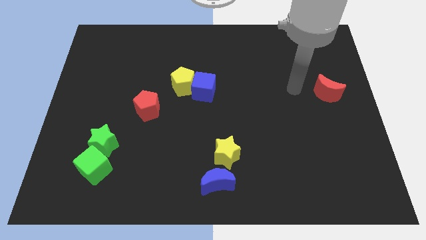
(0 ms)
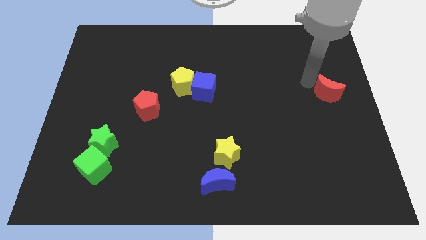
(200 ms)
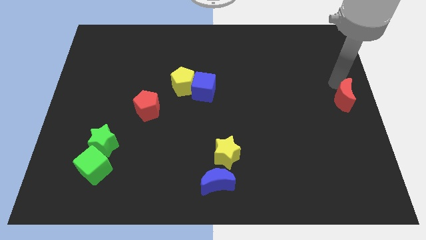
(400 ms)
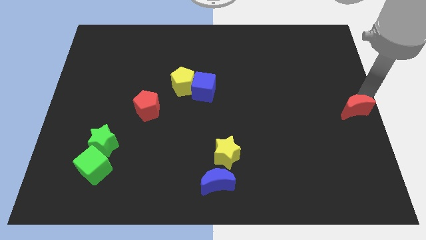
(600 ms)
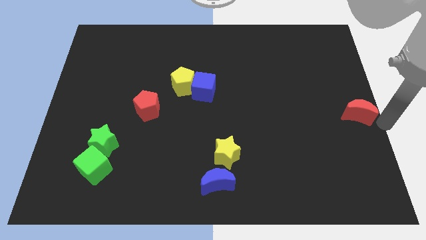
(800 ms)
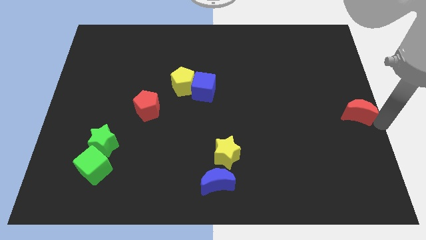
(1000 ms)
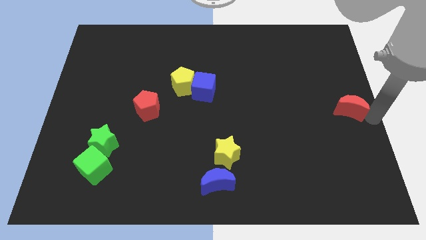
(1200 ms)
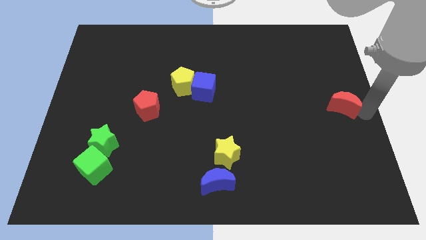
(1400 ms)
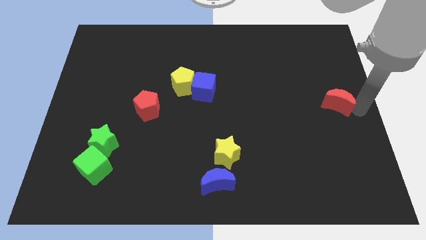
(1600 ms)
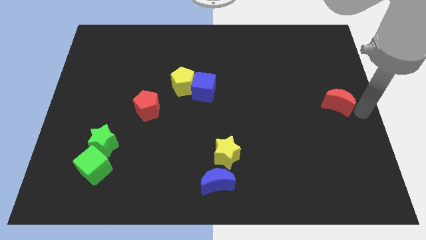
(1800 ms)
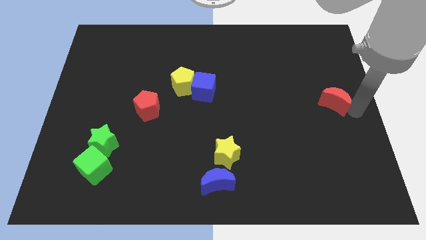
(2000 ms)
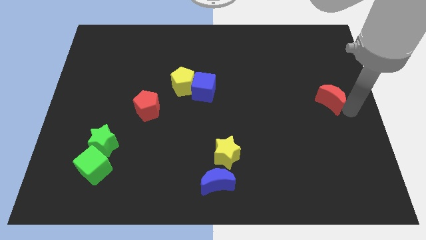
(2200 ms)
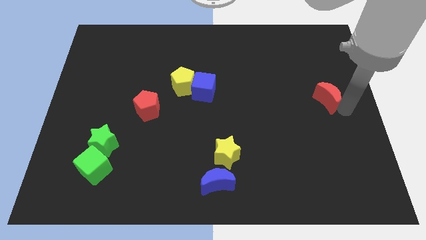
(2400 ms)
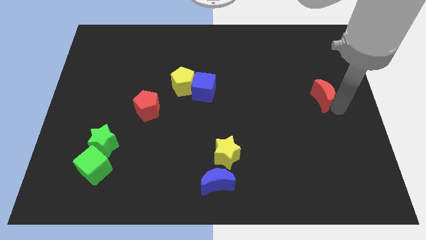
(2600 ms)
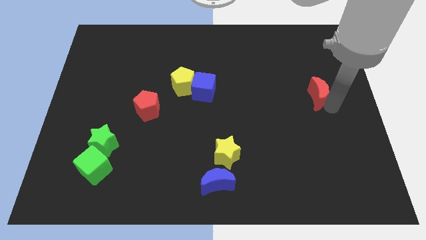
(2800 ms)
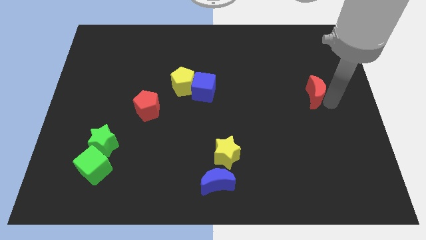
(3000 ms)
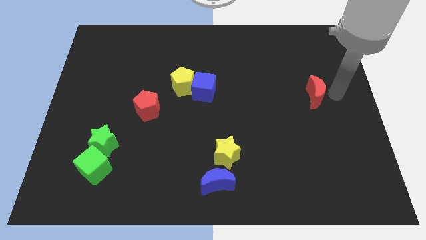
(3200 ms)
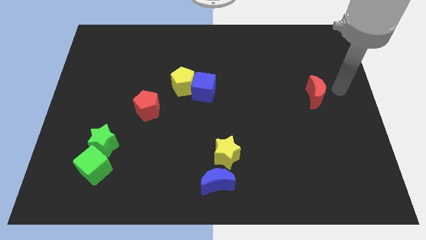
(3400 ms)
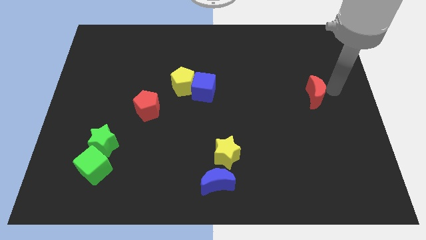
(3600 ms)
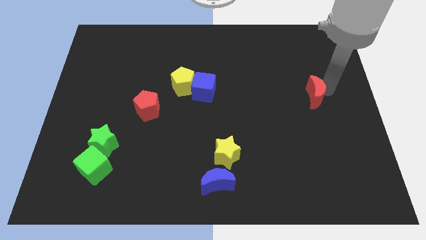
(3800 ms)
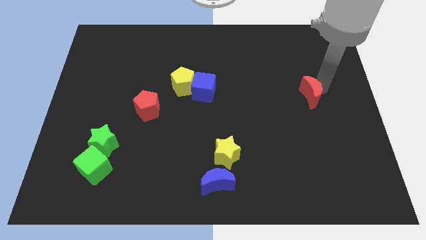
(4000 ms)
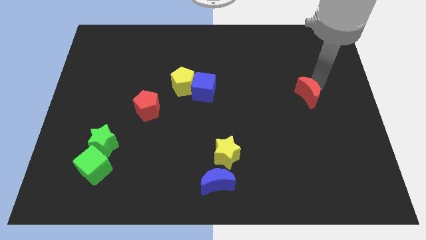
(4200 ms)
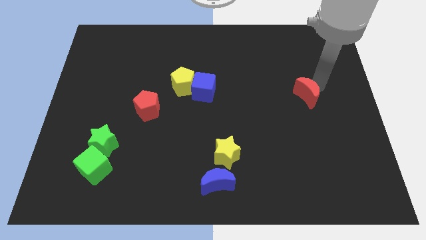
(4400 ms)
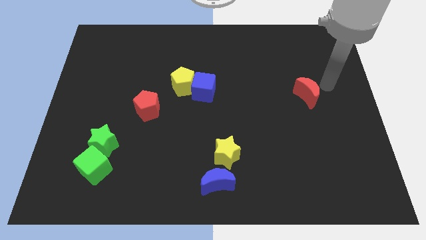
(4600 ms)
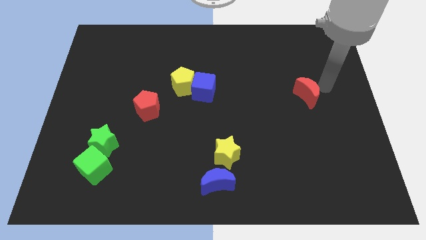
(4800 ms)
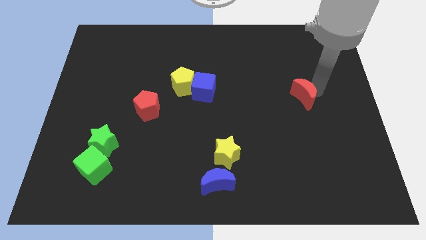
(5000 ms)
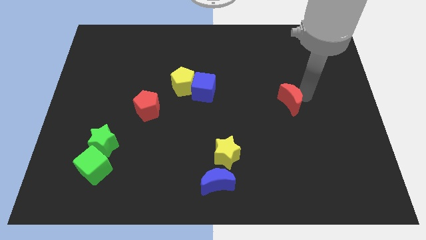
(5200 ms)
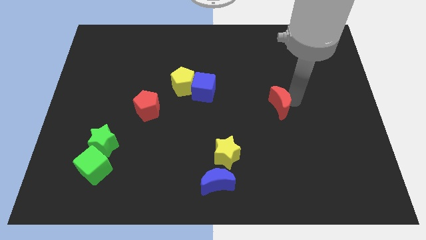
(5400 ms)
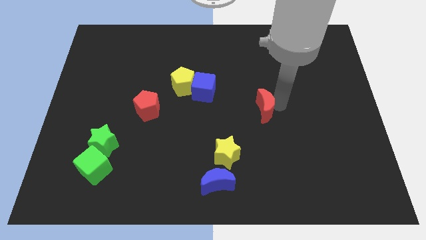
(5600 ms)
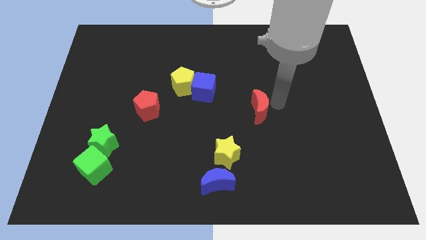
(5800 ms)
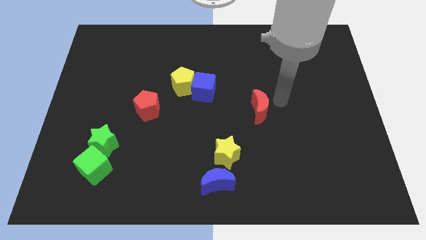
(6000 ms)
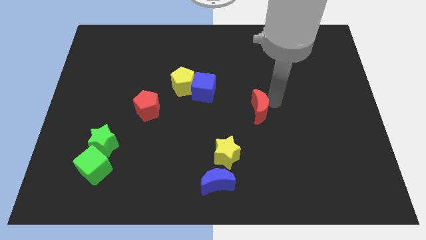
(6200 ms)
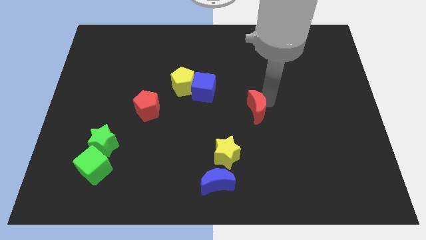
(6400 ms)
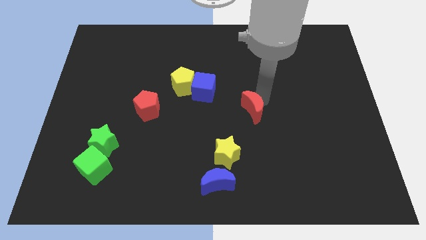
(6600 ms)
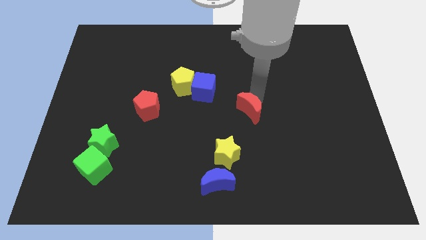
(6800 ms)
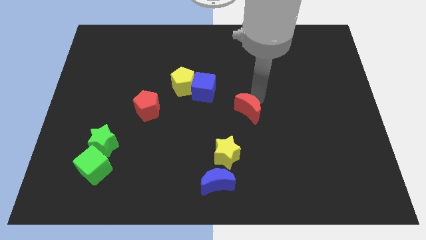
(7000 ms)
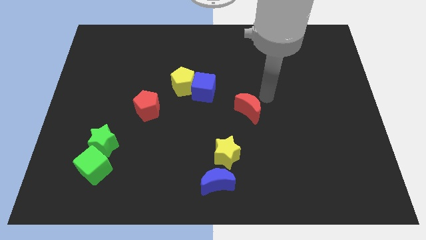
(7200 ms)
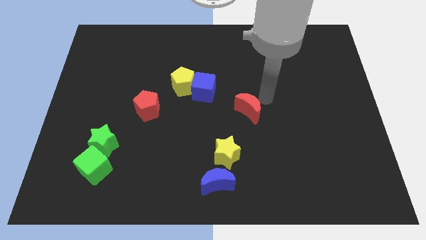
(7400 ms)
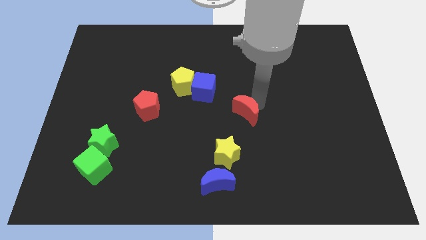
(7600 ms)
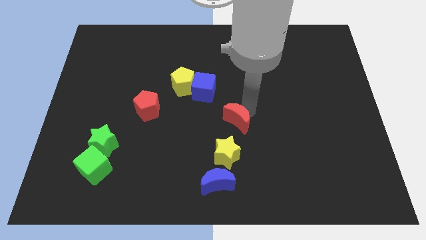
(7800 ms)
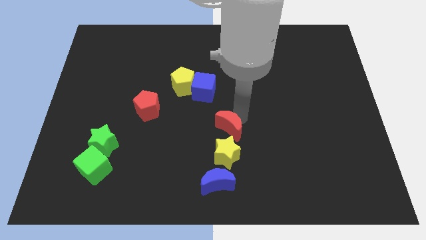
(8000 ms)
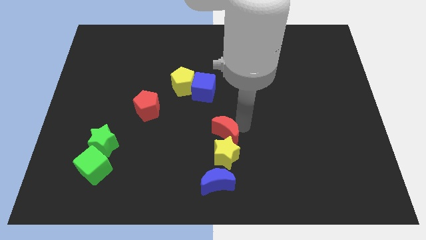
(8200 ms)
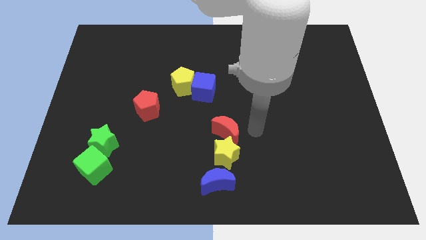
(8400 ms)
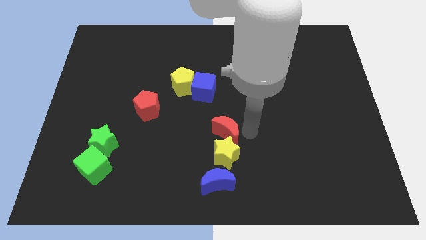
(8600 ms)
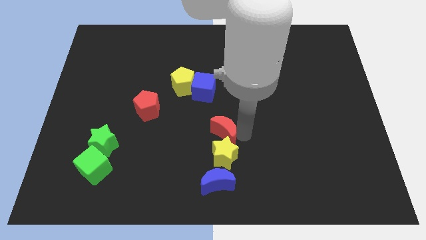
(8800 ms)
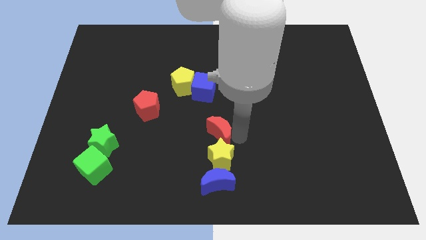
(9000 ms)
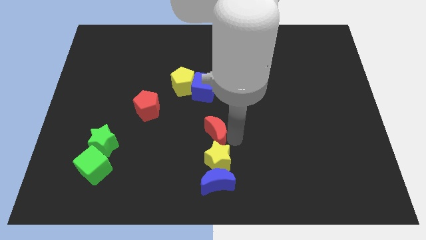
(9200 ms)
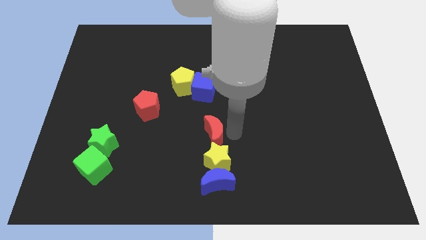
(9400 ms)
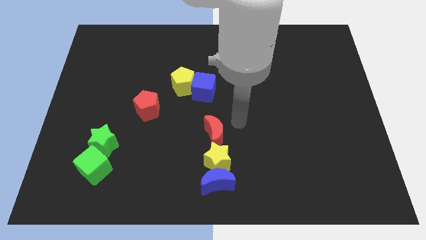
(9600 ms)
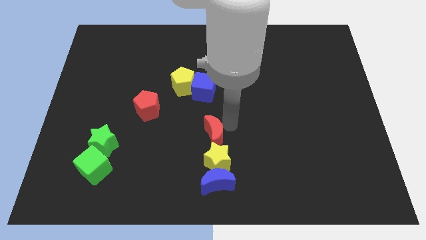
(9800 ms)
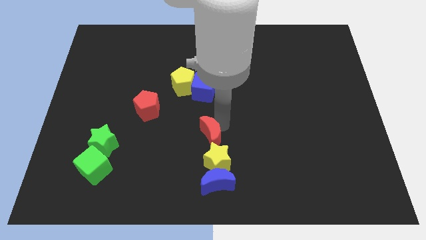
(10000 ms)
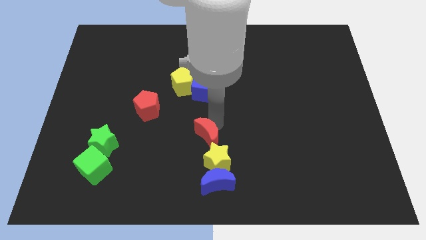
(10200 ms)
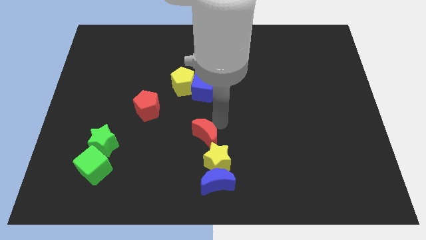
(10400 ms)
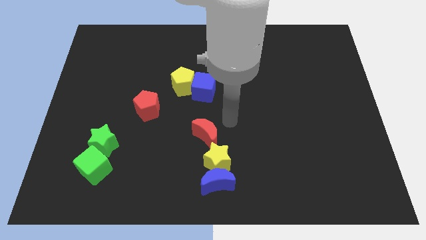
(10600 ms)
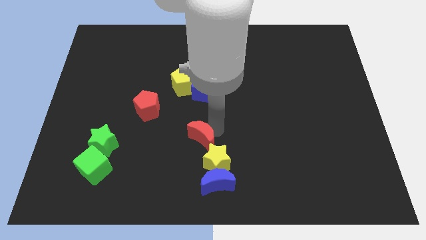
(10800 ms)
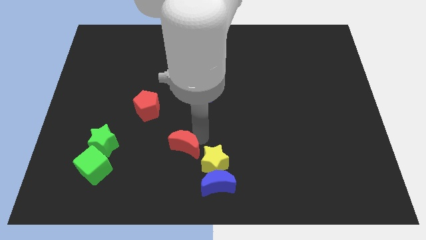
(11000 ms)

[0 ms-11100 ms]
put the red moon to the left of the yellow star

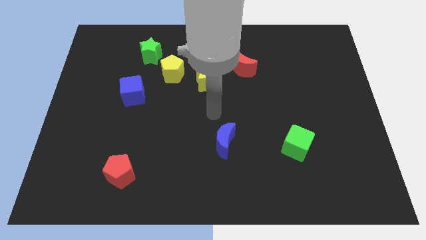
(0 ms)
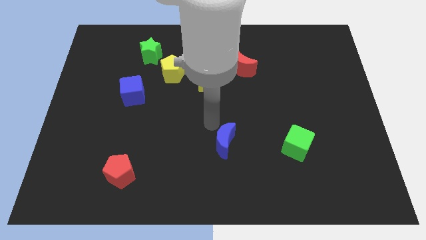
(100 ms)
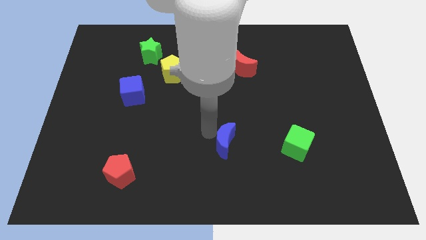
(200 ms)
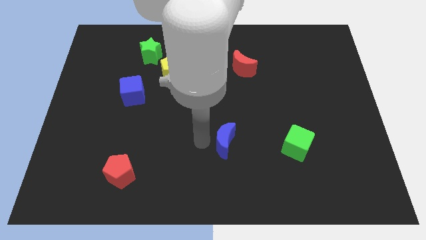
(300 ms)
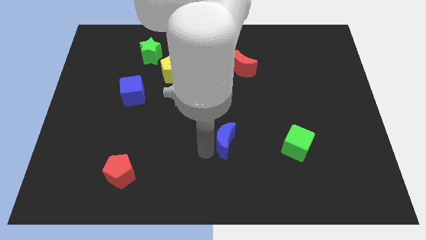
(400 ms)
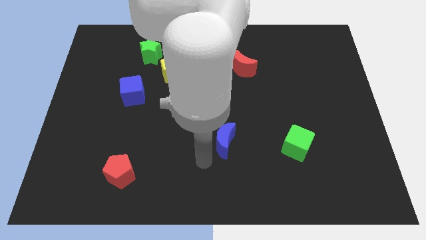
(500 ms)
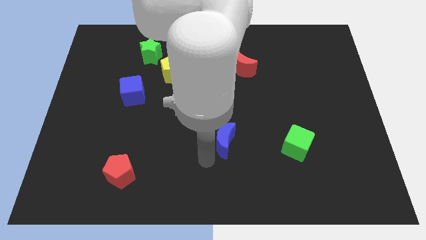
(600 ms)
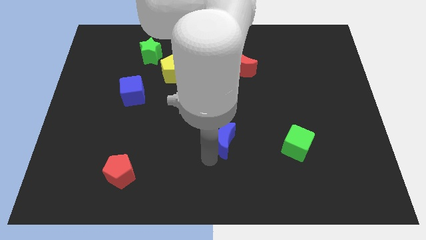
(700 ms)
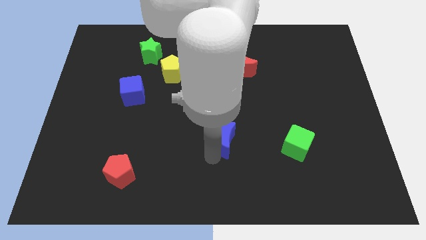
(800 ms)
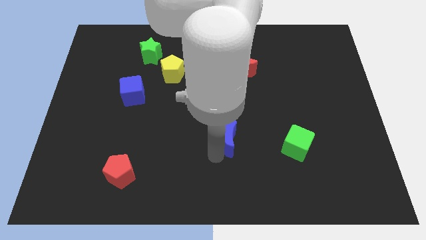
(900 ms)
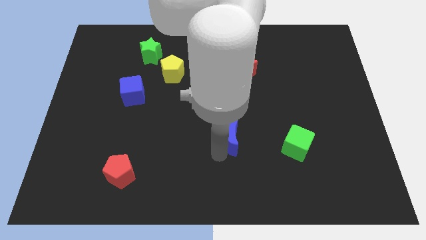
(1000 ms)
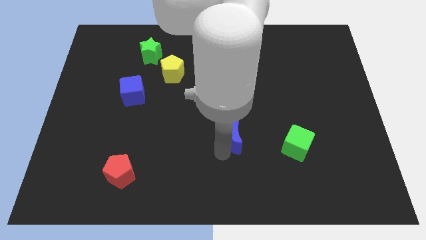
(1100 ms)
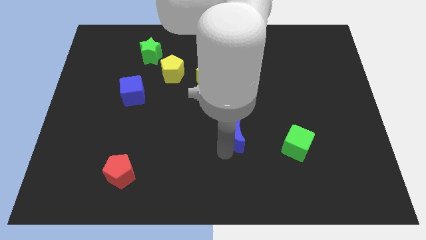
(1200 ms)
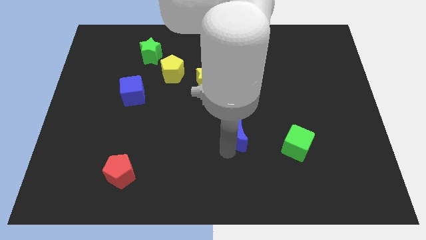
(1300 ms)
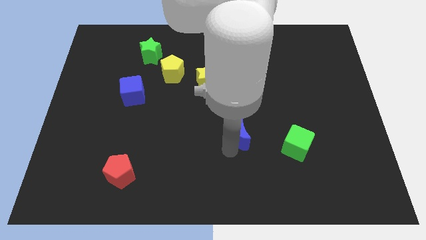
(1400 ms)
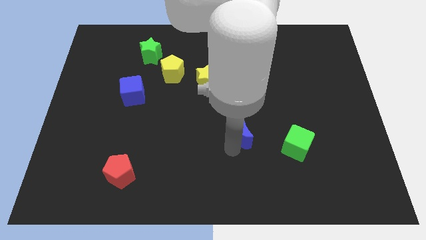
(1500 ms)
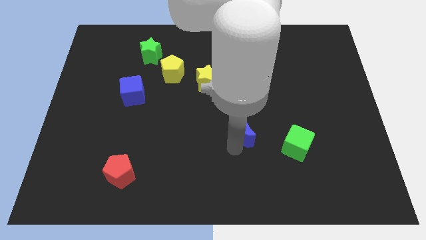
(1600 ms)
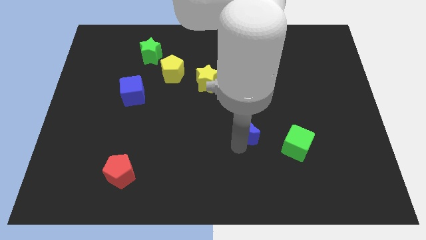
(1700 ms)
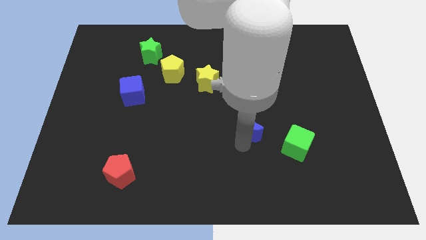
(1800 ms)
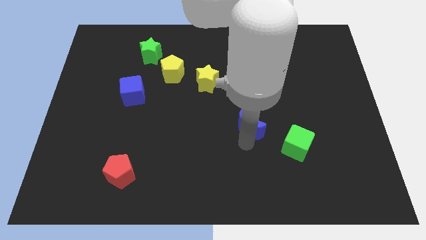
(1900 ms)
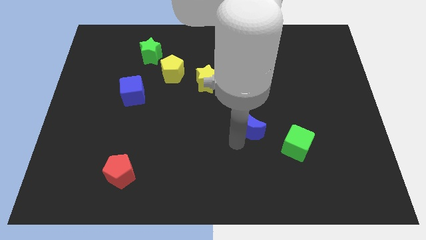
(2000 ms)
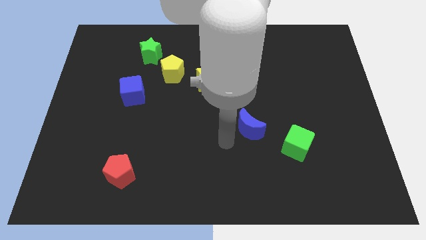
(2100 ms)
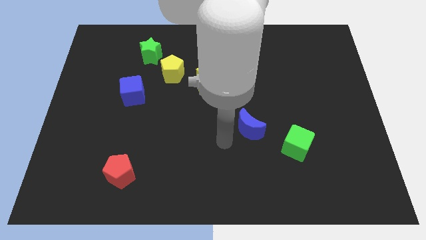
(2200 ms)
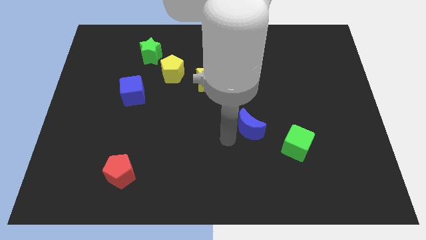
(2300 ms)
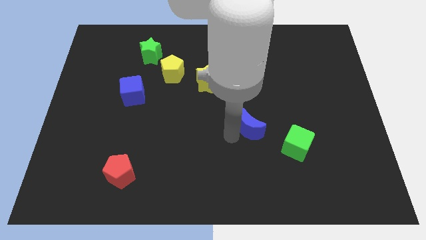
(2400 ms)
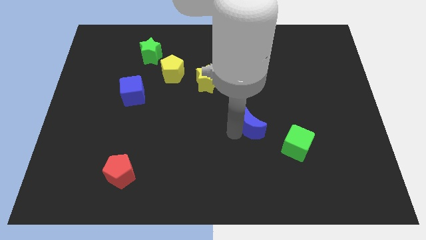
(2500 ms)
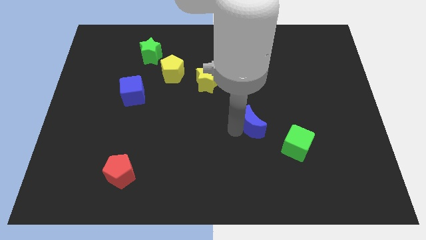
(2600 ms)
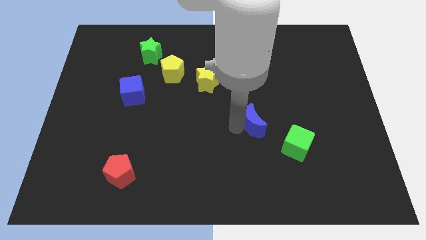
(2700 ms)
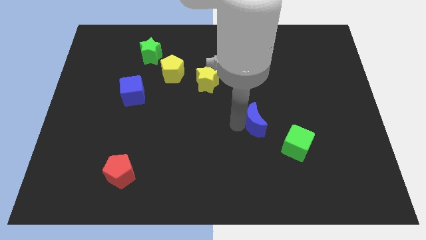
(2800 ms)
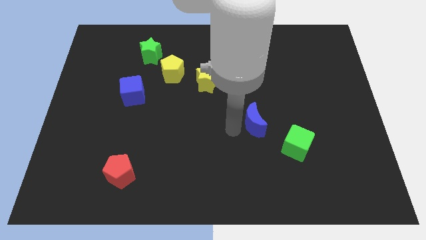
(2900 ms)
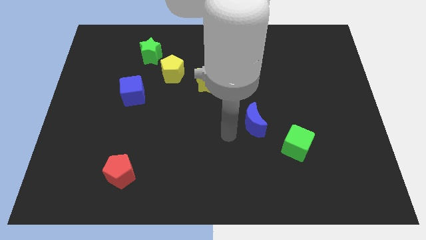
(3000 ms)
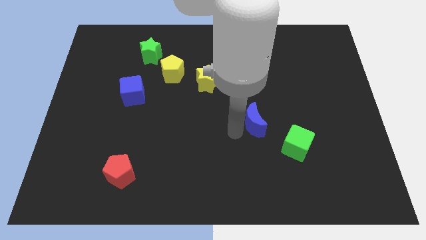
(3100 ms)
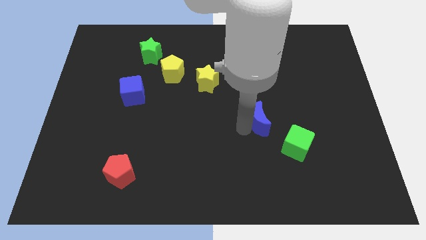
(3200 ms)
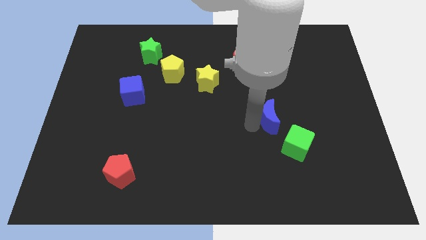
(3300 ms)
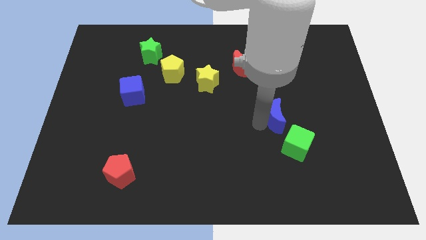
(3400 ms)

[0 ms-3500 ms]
move the blue moon above the green cube
